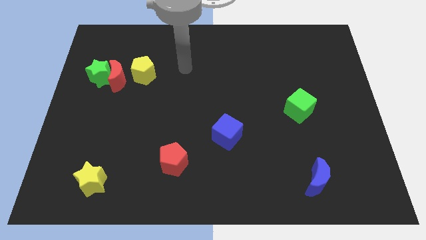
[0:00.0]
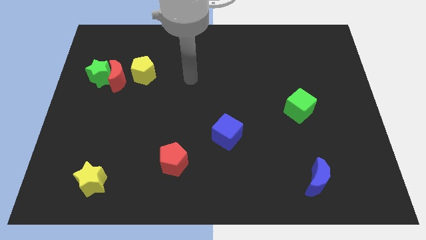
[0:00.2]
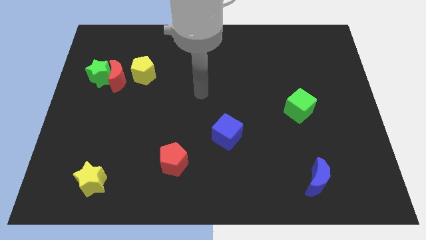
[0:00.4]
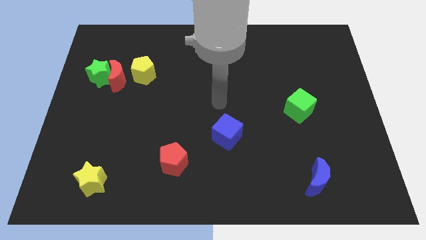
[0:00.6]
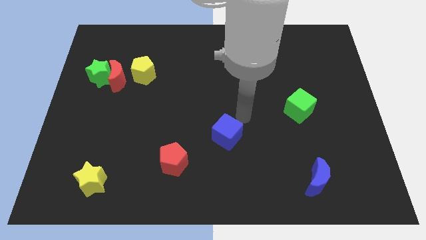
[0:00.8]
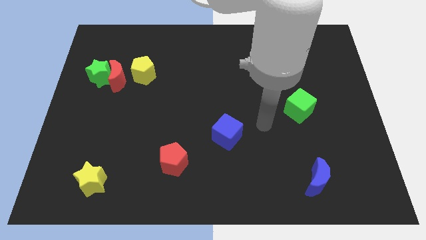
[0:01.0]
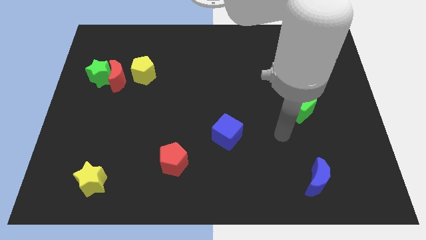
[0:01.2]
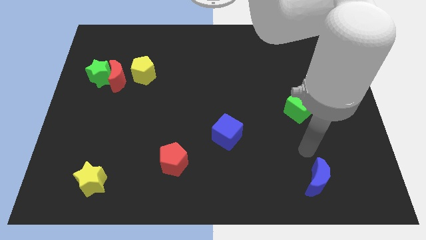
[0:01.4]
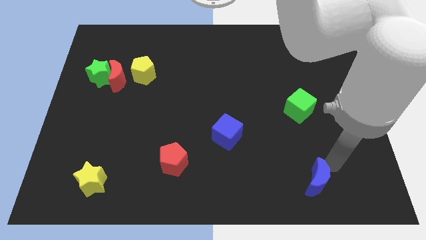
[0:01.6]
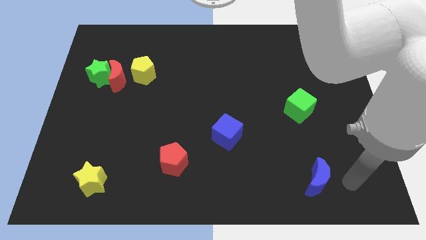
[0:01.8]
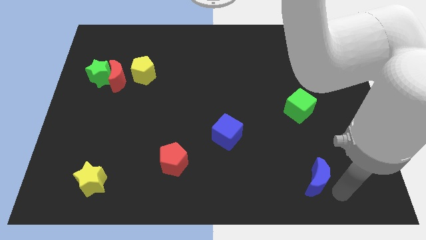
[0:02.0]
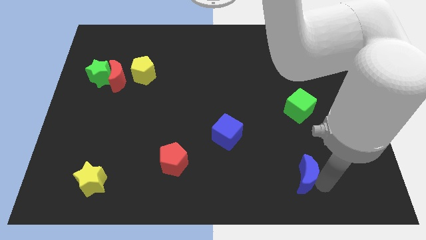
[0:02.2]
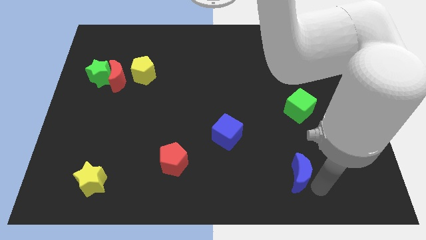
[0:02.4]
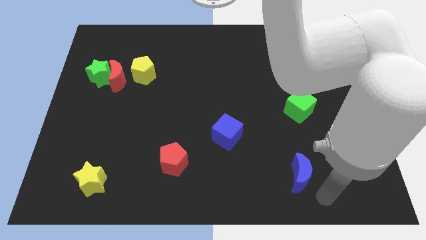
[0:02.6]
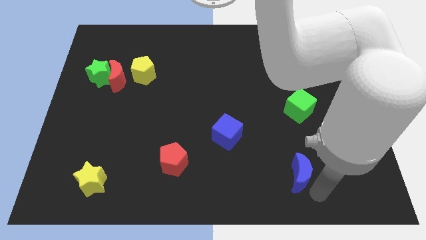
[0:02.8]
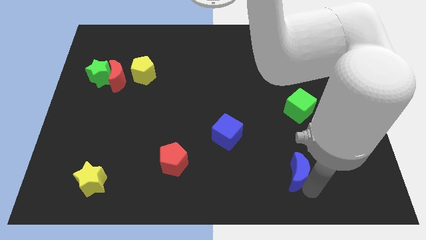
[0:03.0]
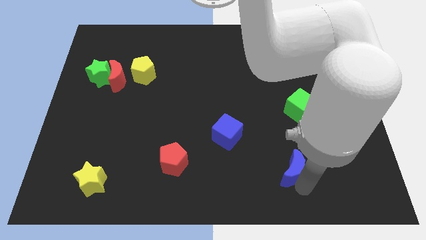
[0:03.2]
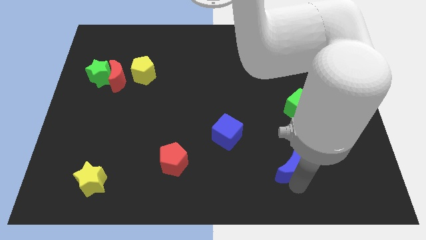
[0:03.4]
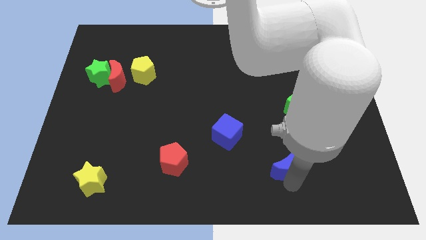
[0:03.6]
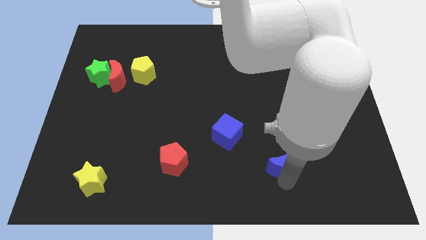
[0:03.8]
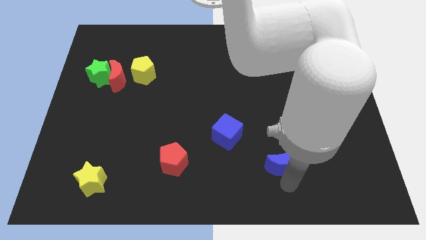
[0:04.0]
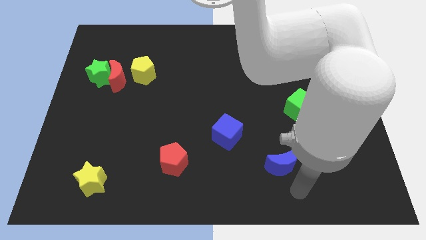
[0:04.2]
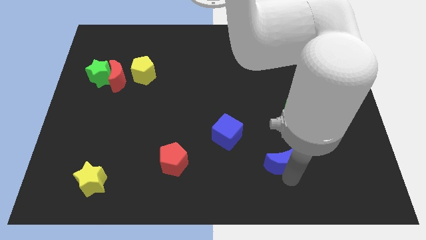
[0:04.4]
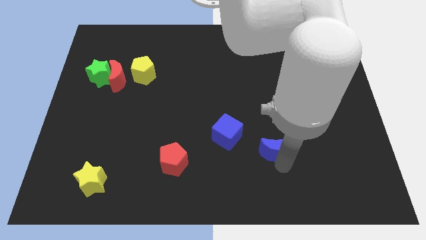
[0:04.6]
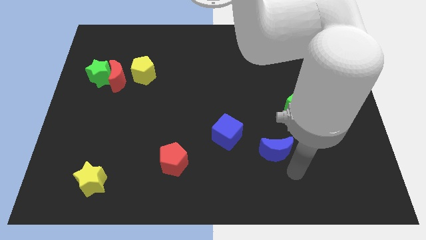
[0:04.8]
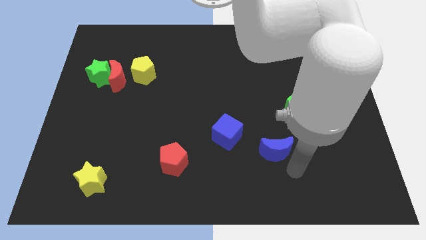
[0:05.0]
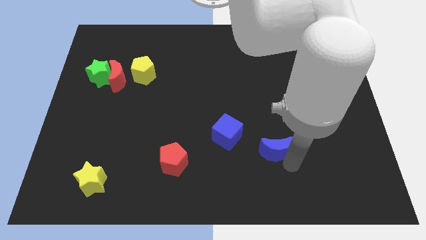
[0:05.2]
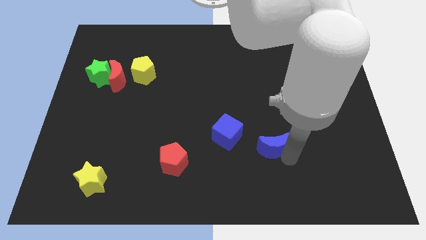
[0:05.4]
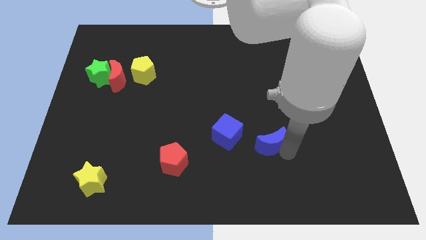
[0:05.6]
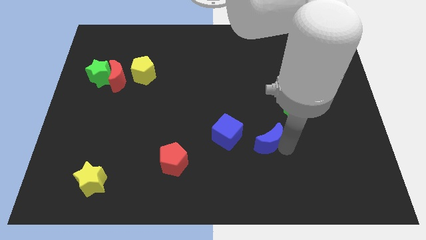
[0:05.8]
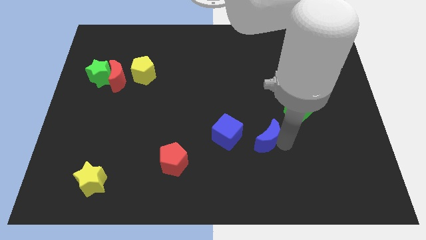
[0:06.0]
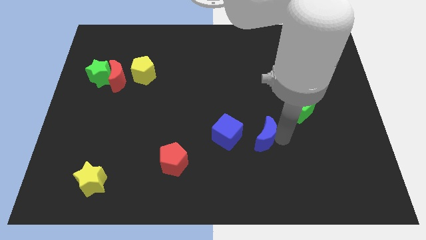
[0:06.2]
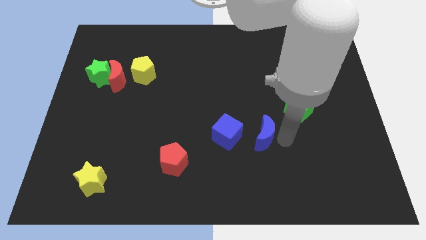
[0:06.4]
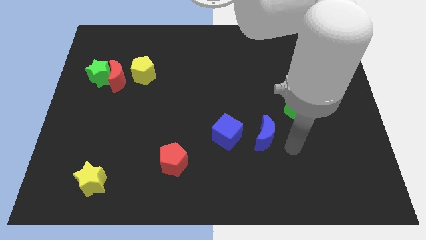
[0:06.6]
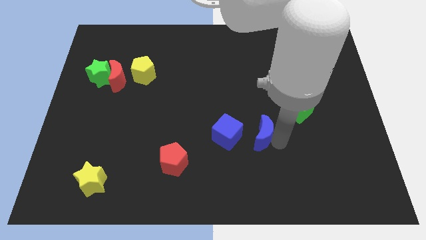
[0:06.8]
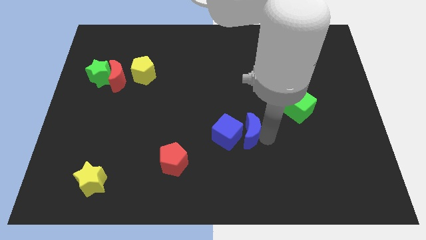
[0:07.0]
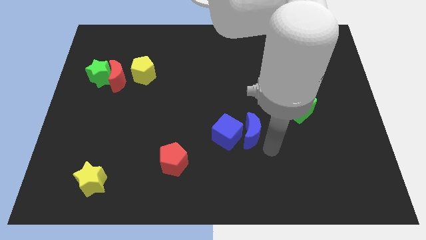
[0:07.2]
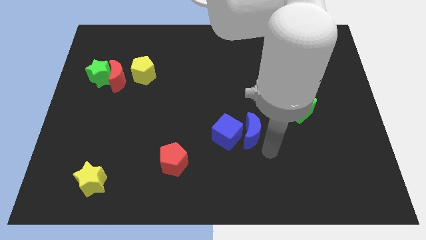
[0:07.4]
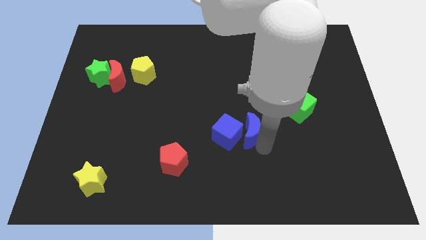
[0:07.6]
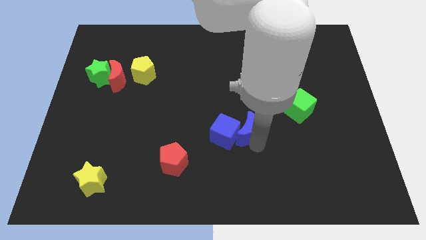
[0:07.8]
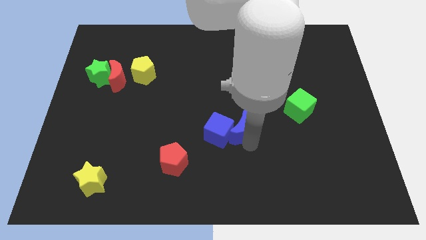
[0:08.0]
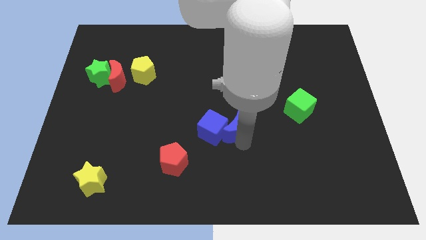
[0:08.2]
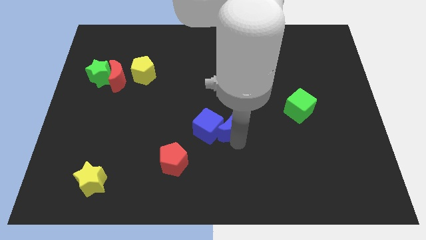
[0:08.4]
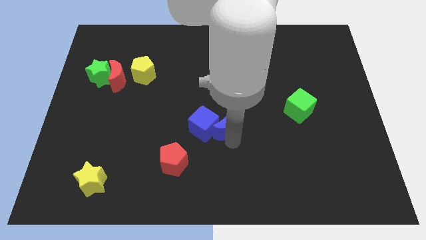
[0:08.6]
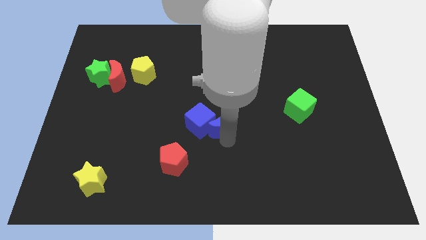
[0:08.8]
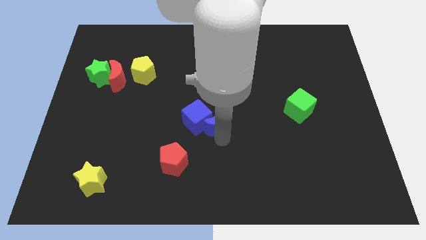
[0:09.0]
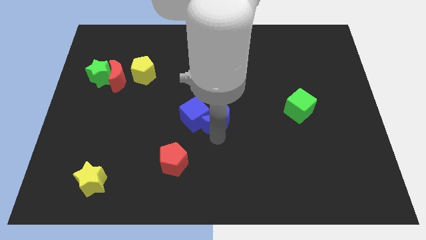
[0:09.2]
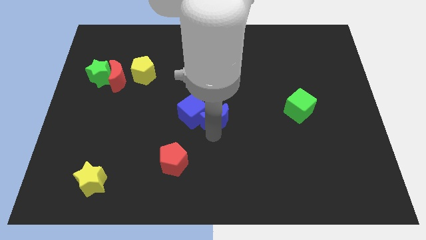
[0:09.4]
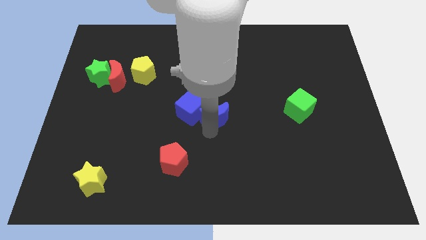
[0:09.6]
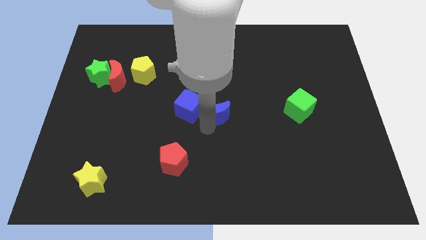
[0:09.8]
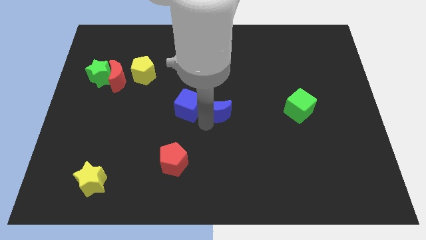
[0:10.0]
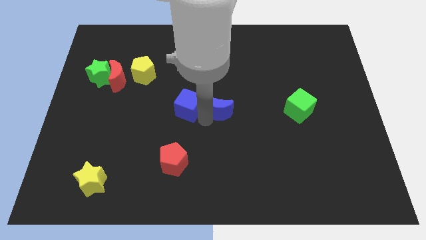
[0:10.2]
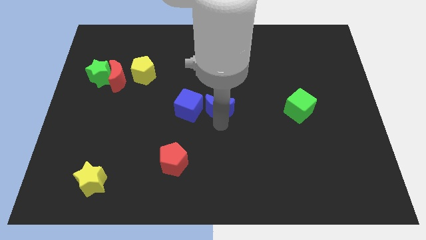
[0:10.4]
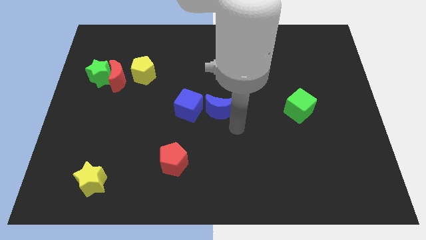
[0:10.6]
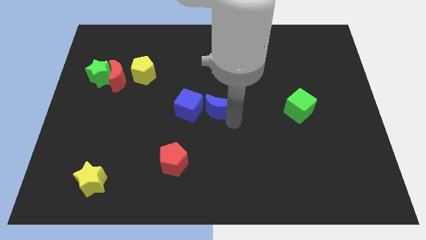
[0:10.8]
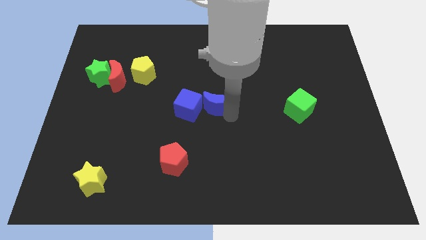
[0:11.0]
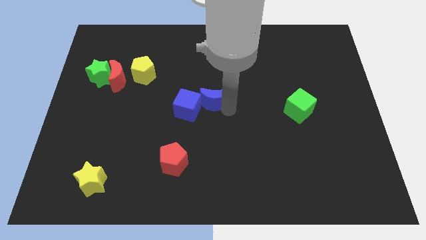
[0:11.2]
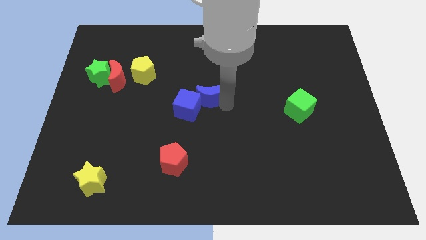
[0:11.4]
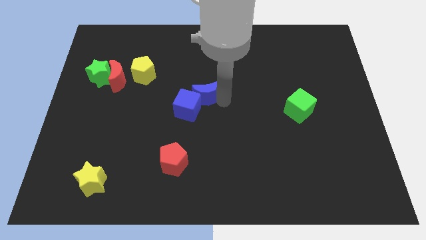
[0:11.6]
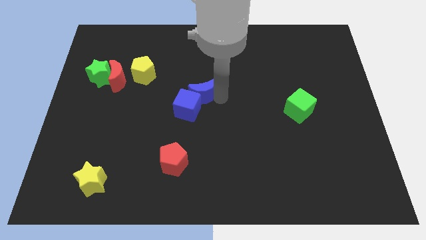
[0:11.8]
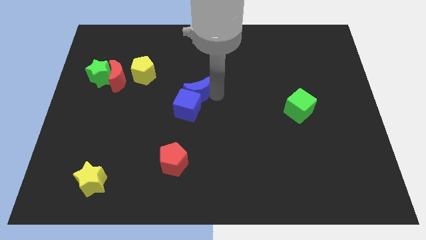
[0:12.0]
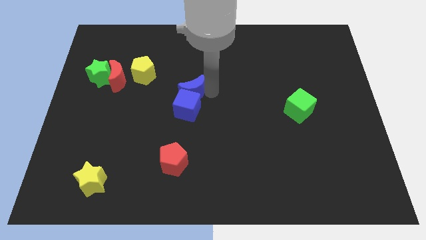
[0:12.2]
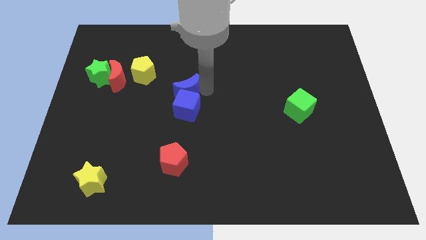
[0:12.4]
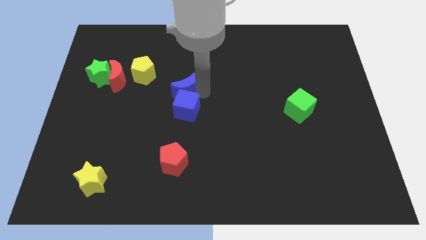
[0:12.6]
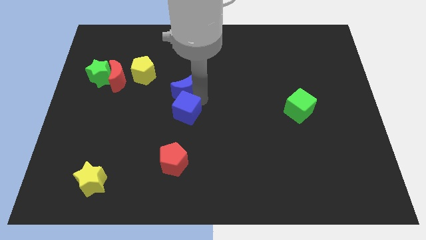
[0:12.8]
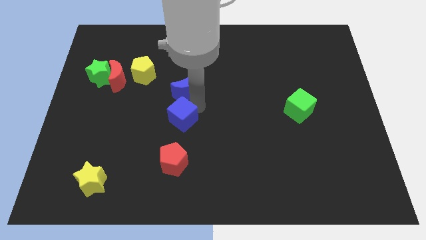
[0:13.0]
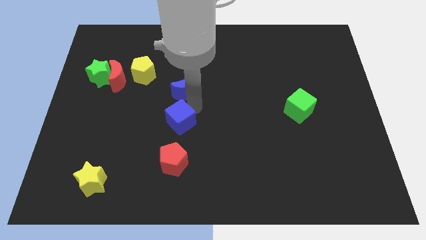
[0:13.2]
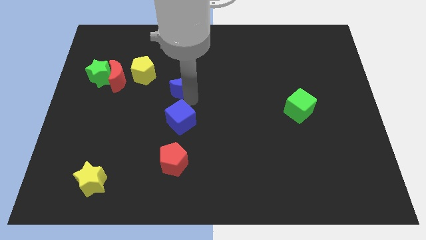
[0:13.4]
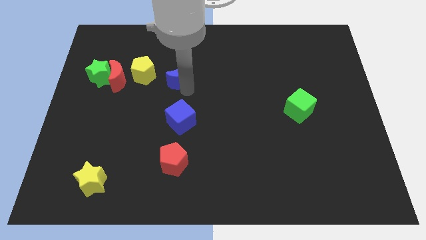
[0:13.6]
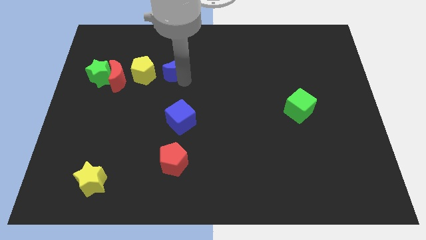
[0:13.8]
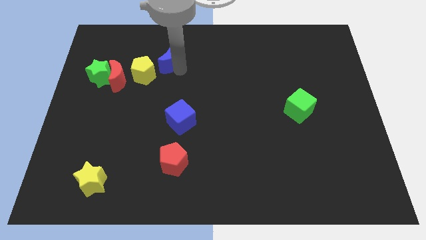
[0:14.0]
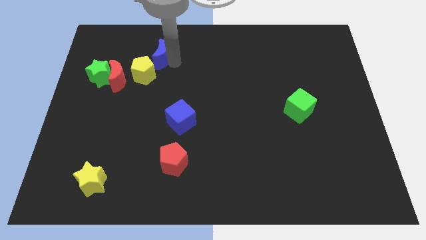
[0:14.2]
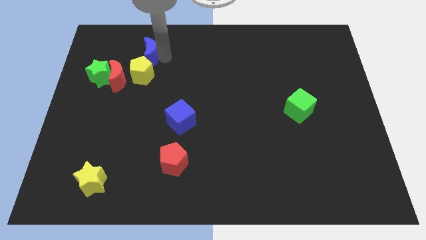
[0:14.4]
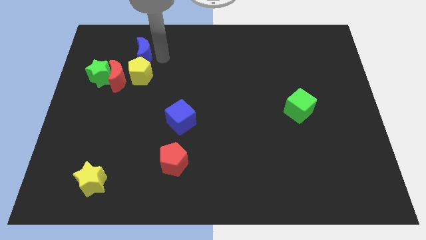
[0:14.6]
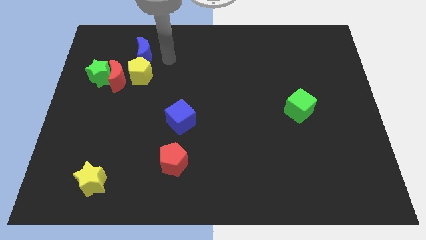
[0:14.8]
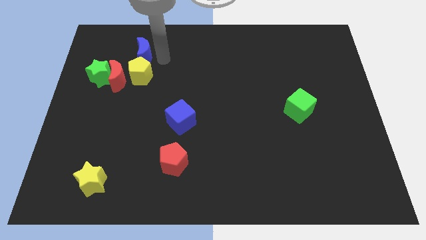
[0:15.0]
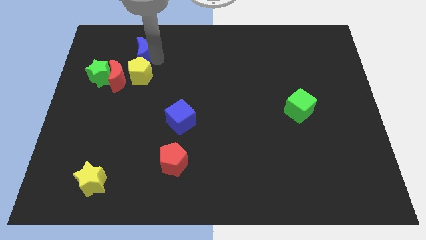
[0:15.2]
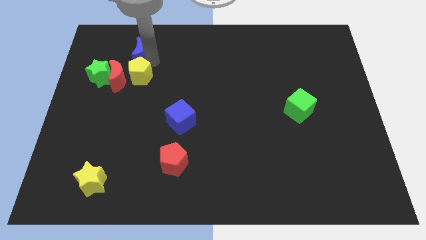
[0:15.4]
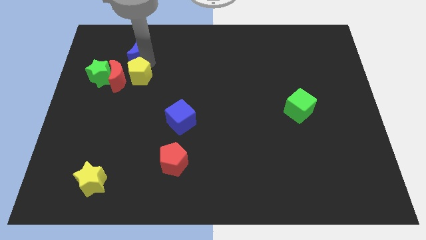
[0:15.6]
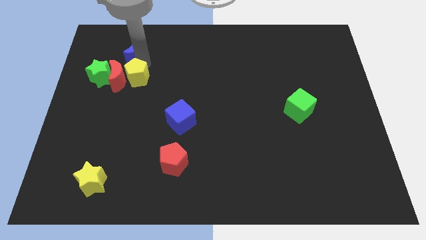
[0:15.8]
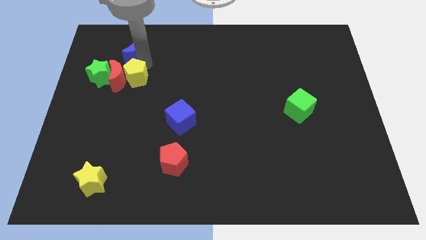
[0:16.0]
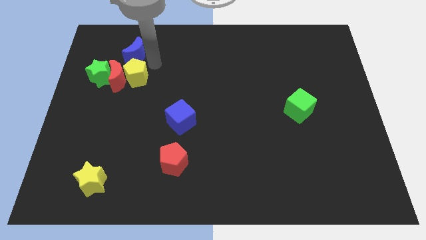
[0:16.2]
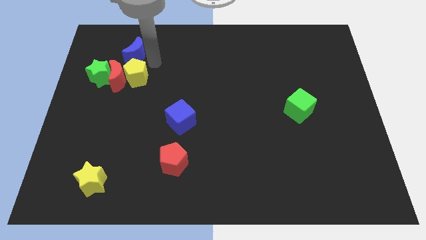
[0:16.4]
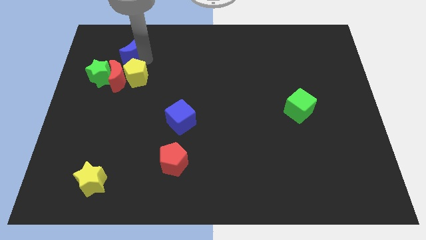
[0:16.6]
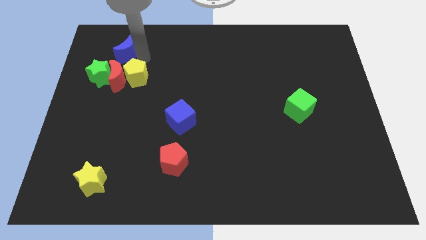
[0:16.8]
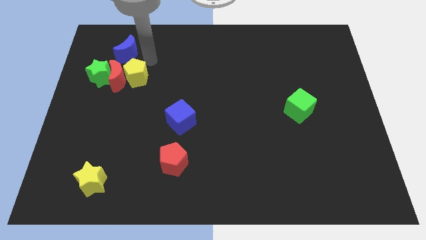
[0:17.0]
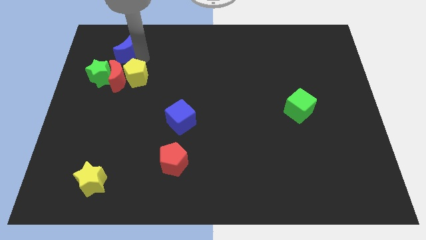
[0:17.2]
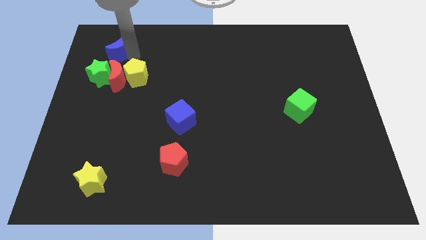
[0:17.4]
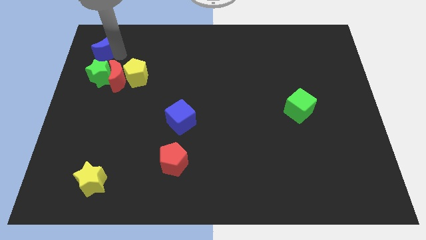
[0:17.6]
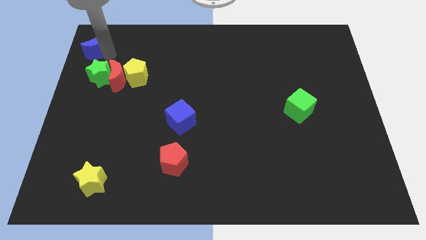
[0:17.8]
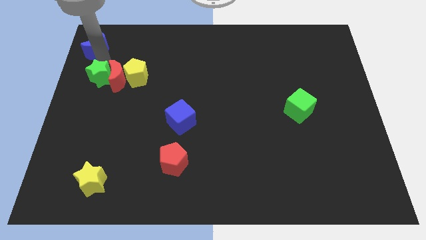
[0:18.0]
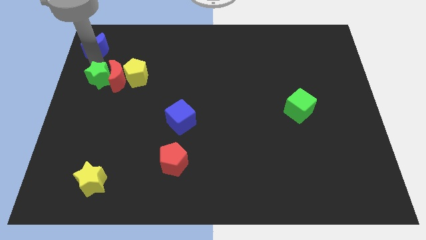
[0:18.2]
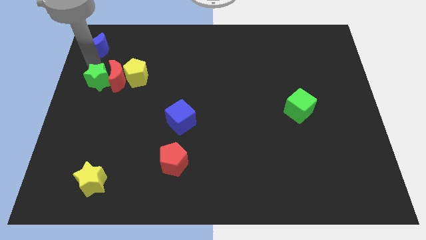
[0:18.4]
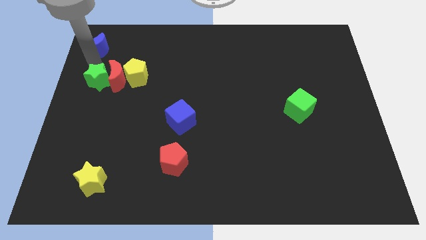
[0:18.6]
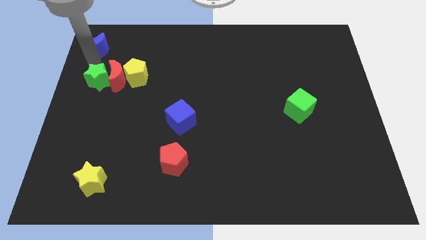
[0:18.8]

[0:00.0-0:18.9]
push the blue moon to the top left corner
